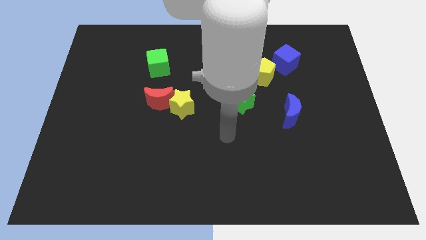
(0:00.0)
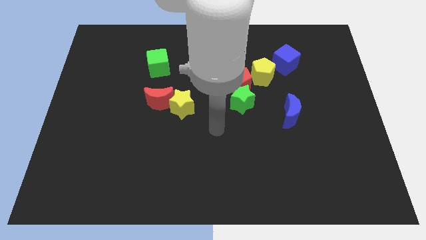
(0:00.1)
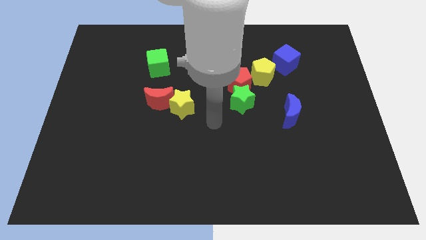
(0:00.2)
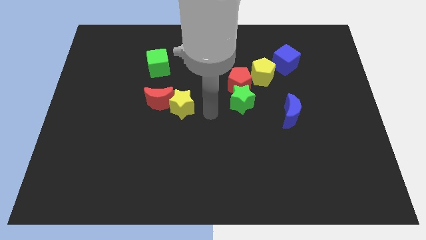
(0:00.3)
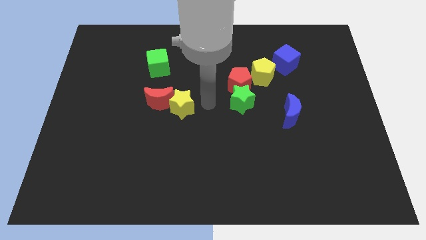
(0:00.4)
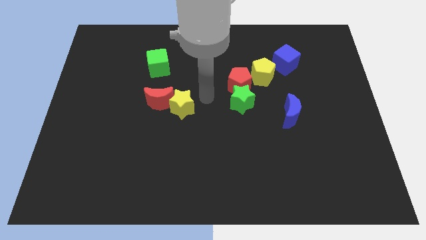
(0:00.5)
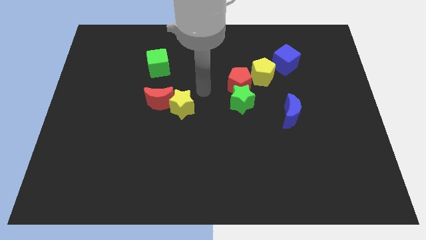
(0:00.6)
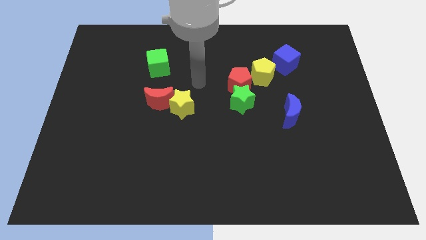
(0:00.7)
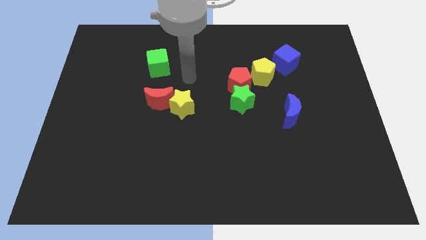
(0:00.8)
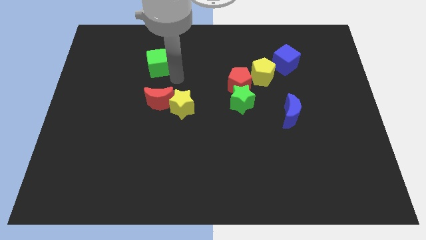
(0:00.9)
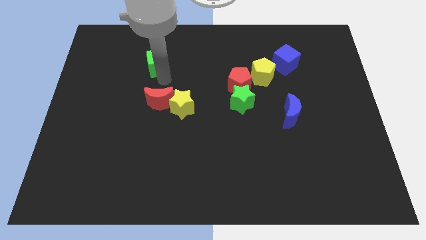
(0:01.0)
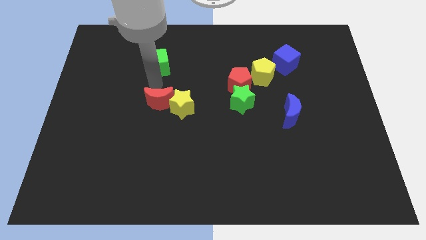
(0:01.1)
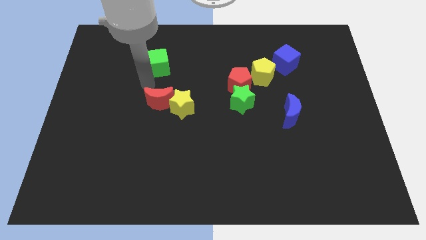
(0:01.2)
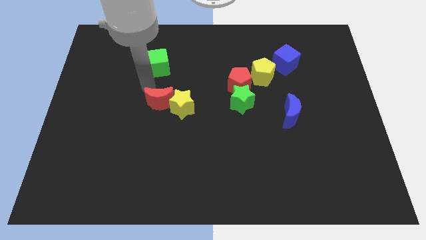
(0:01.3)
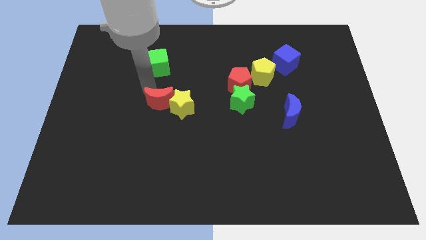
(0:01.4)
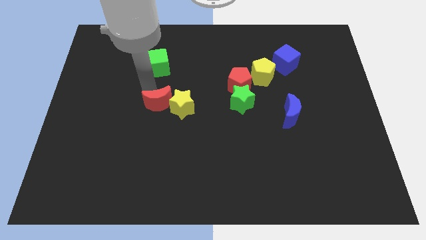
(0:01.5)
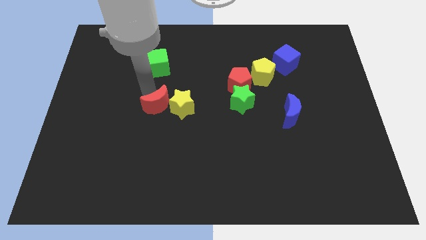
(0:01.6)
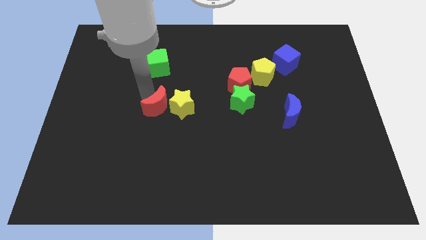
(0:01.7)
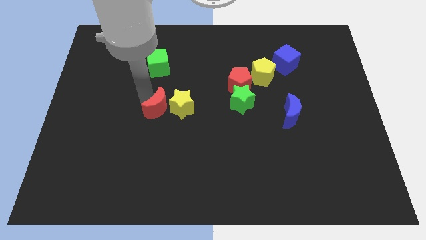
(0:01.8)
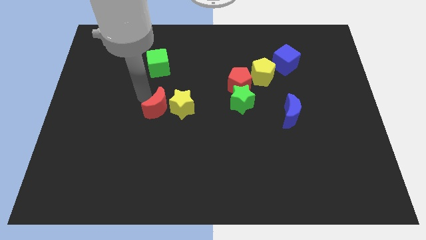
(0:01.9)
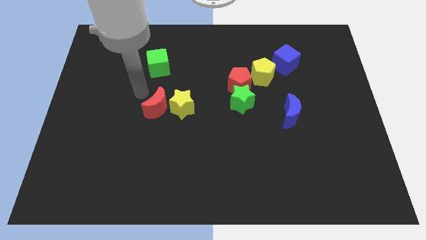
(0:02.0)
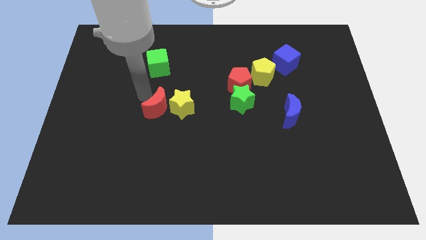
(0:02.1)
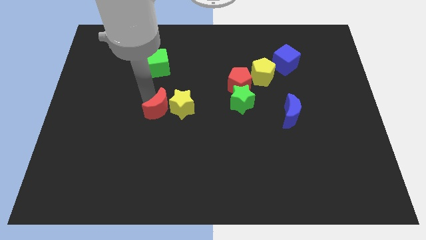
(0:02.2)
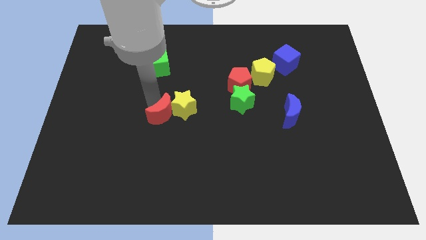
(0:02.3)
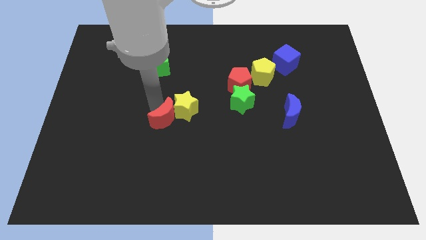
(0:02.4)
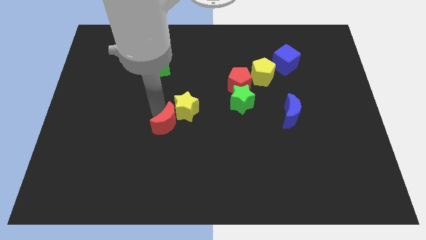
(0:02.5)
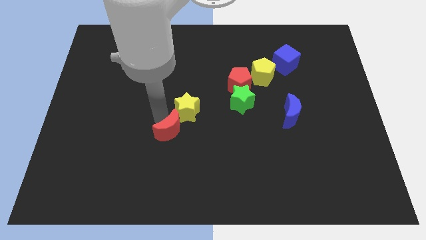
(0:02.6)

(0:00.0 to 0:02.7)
push the red moon down and then right slightly

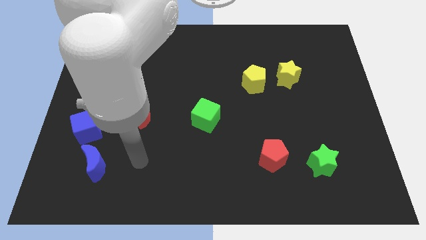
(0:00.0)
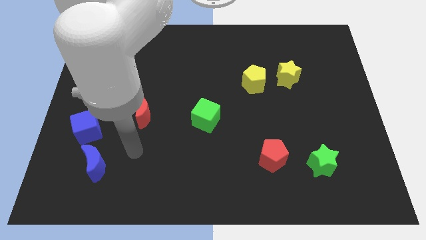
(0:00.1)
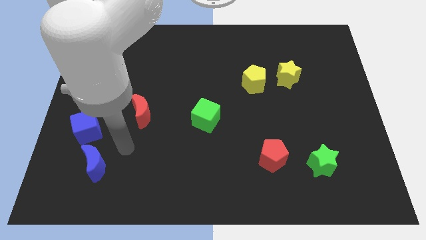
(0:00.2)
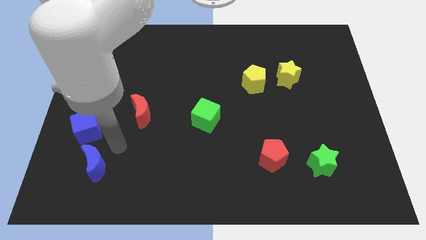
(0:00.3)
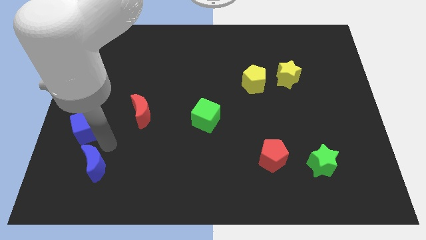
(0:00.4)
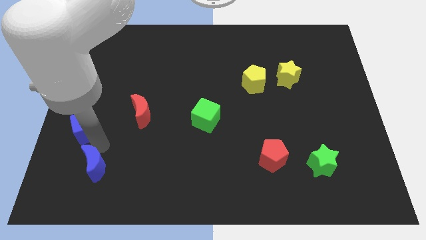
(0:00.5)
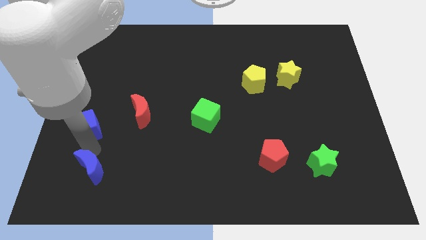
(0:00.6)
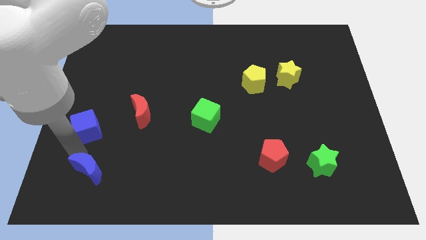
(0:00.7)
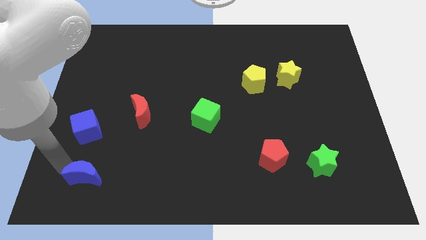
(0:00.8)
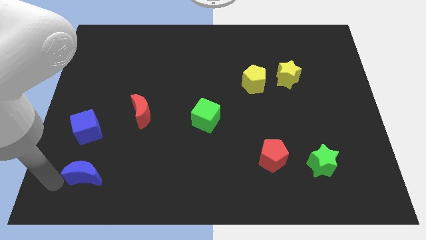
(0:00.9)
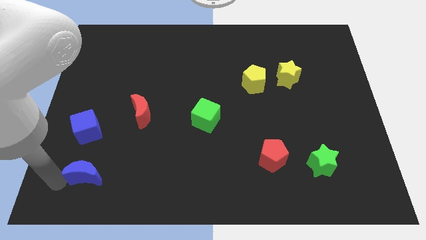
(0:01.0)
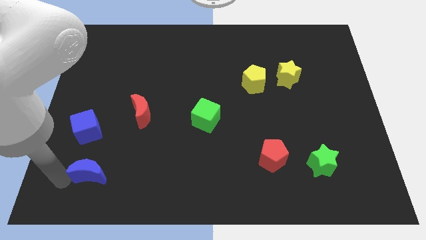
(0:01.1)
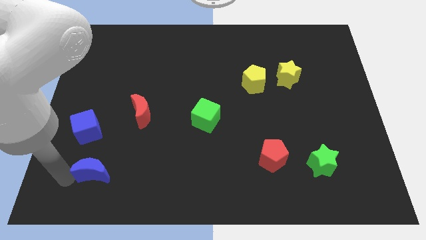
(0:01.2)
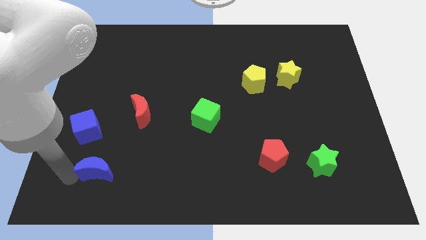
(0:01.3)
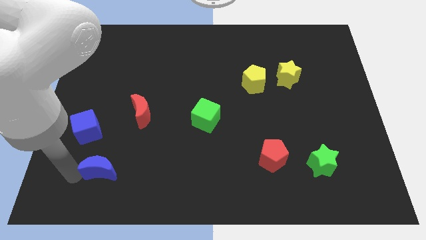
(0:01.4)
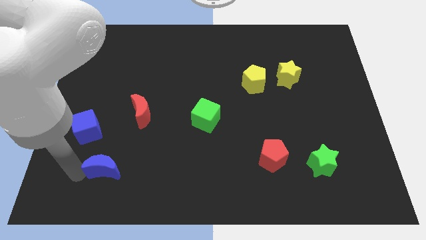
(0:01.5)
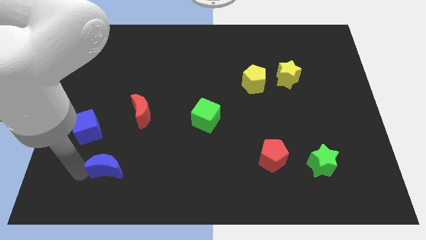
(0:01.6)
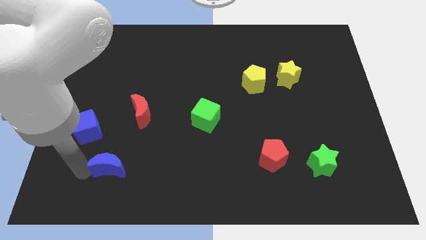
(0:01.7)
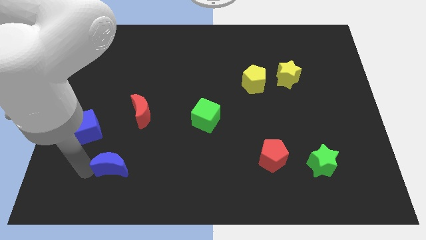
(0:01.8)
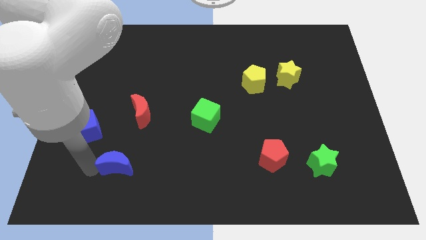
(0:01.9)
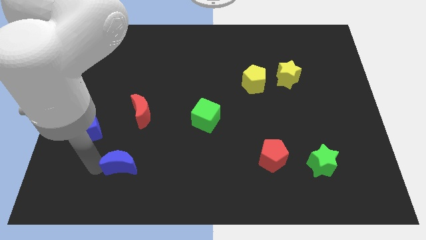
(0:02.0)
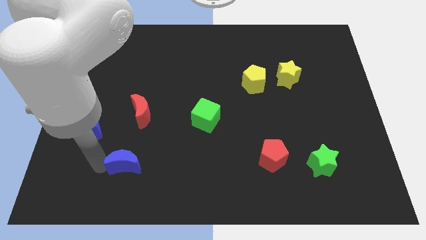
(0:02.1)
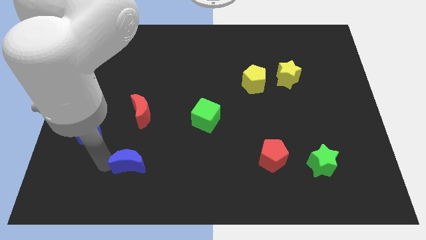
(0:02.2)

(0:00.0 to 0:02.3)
push the blue moon right somewhat

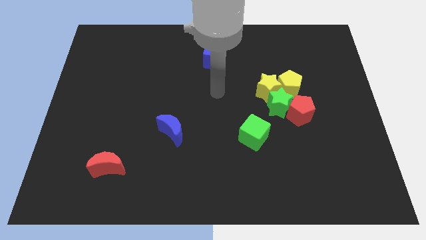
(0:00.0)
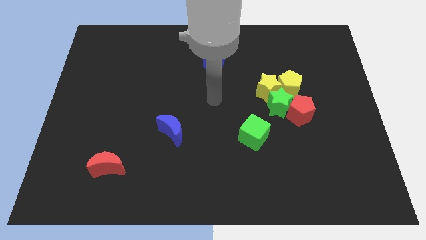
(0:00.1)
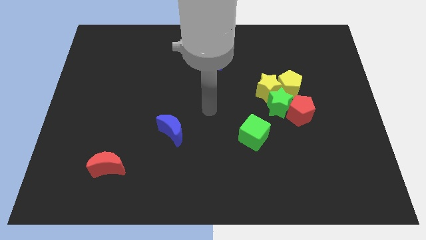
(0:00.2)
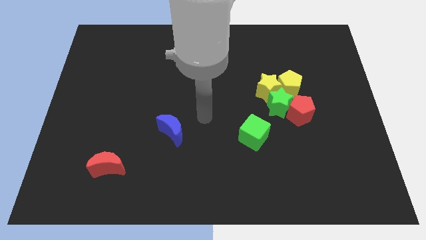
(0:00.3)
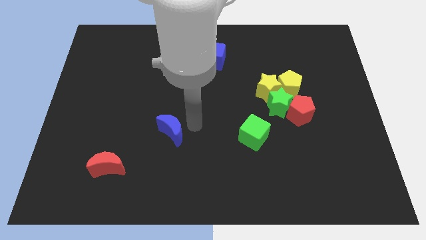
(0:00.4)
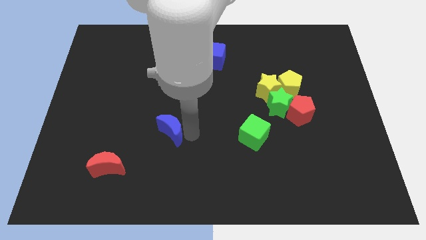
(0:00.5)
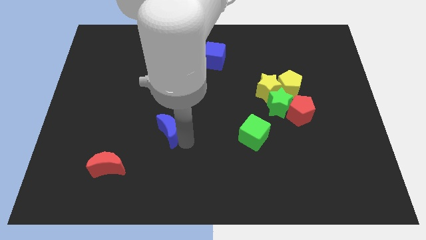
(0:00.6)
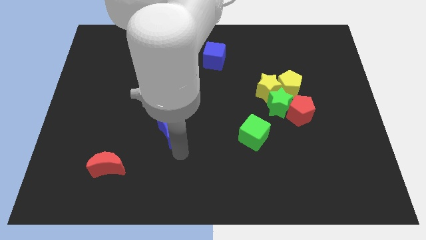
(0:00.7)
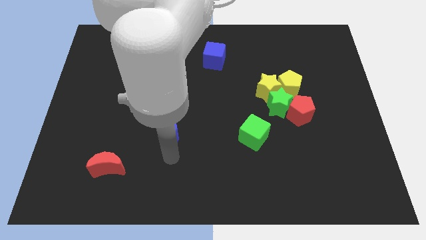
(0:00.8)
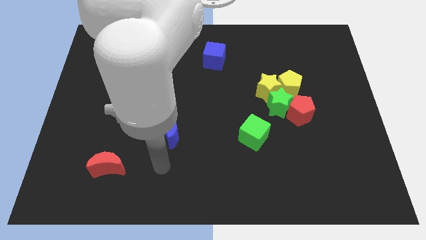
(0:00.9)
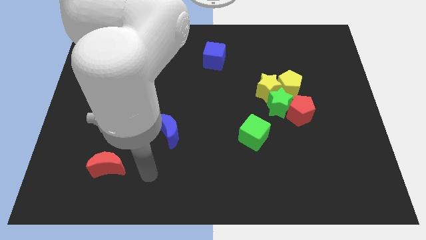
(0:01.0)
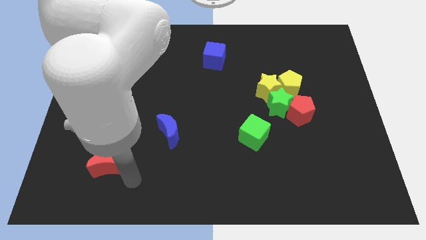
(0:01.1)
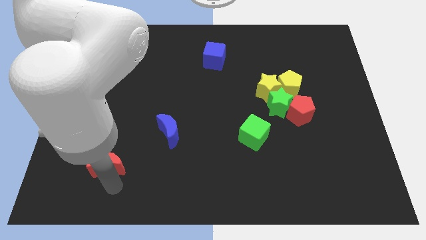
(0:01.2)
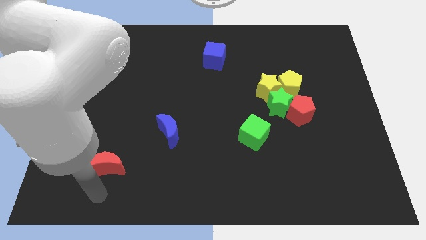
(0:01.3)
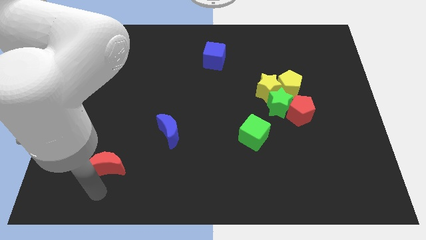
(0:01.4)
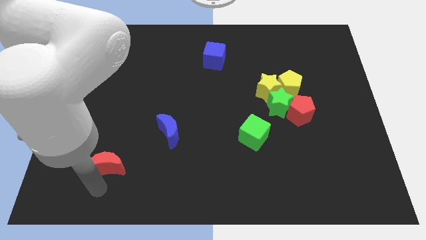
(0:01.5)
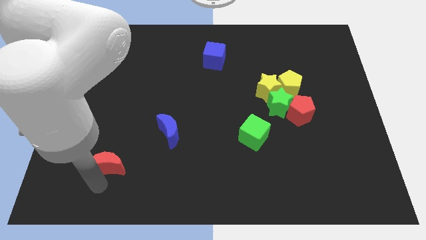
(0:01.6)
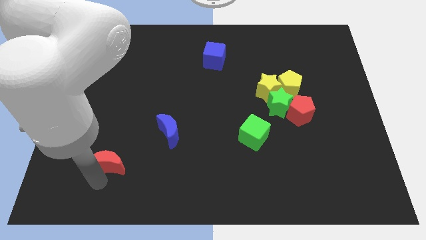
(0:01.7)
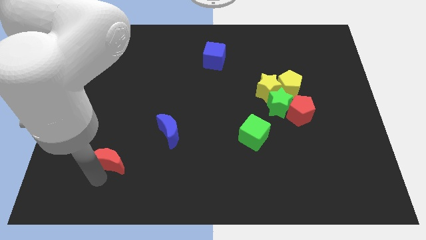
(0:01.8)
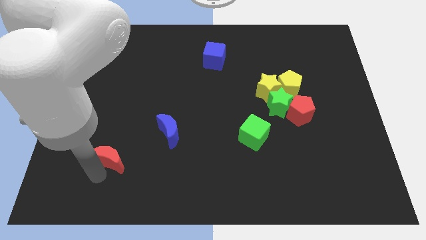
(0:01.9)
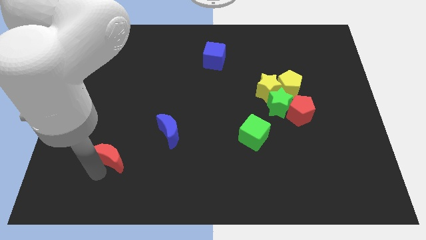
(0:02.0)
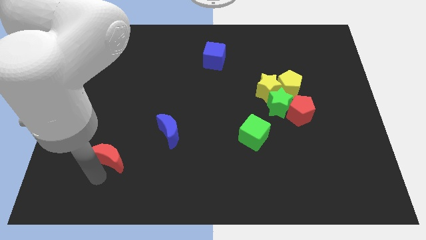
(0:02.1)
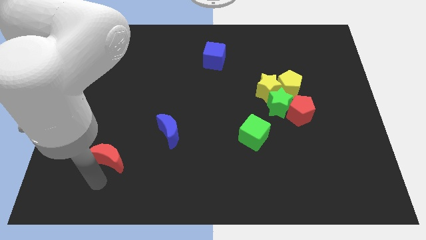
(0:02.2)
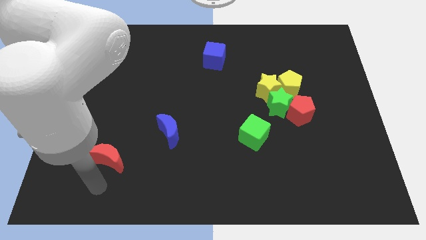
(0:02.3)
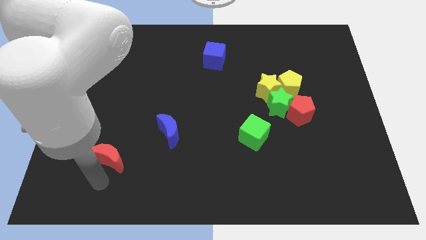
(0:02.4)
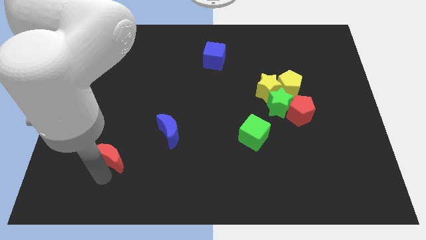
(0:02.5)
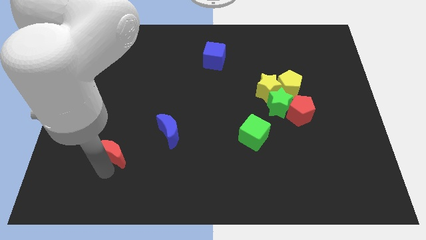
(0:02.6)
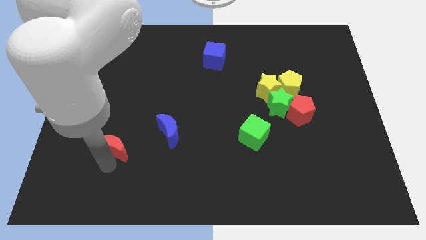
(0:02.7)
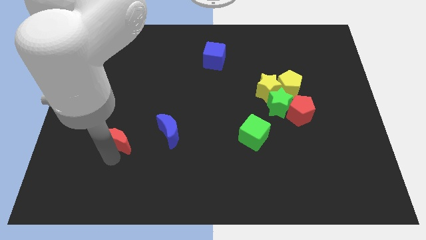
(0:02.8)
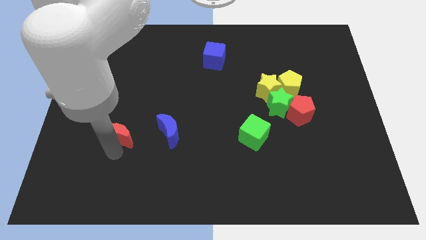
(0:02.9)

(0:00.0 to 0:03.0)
push the red moon upwards a bit
